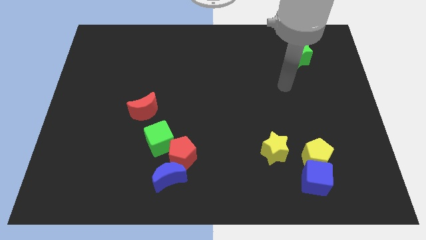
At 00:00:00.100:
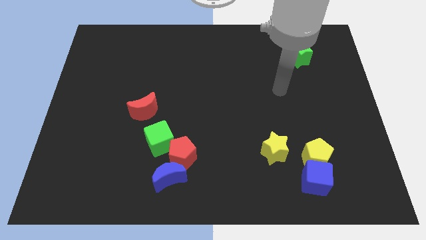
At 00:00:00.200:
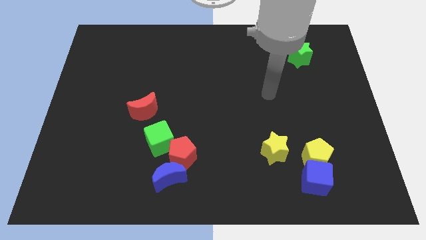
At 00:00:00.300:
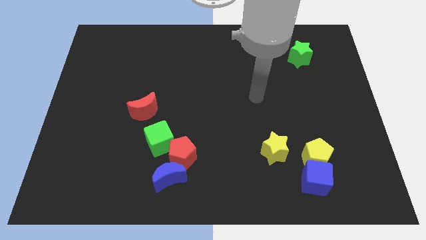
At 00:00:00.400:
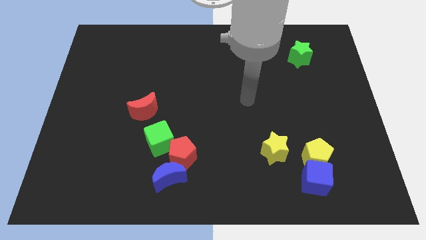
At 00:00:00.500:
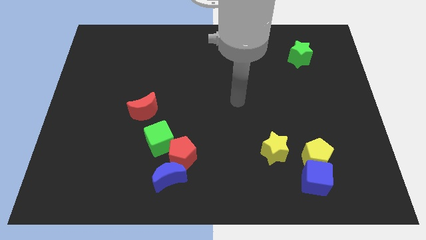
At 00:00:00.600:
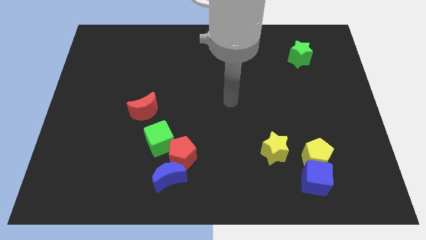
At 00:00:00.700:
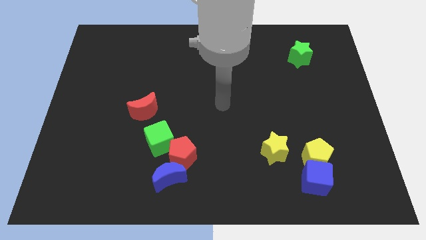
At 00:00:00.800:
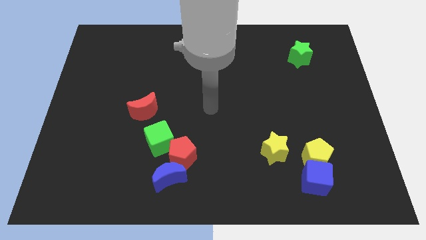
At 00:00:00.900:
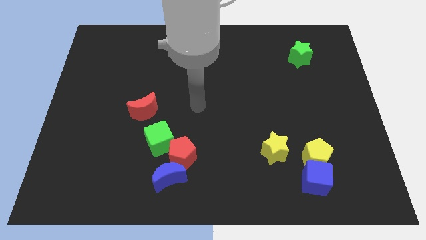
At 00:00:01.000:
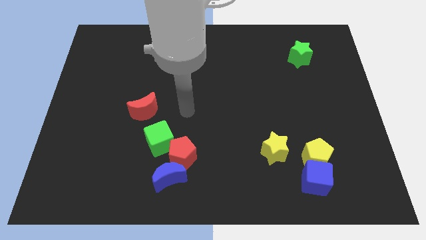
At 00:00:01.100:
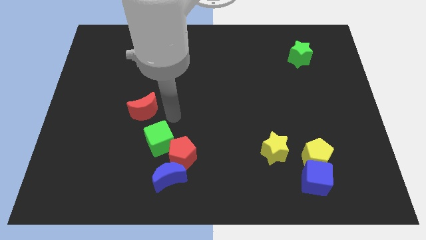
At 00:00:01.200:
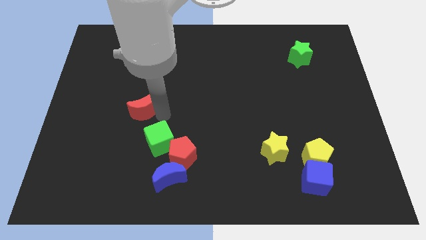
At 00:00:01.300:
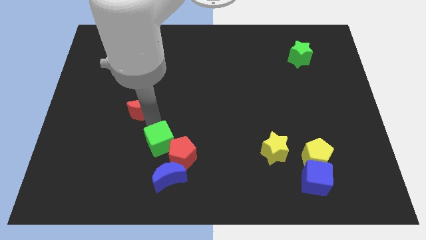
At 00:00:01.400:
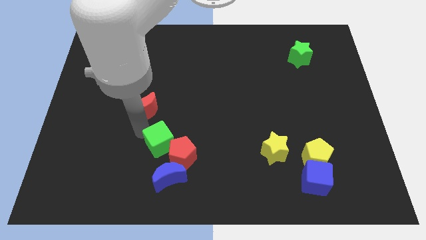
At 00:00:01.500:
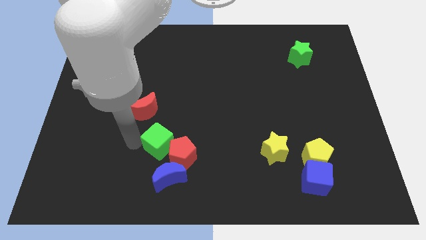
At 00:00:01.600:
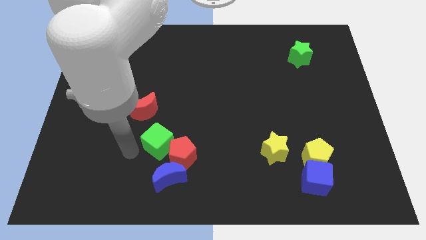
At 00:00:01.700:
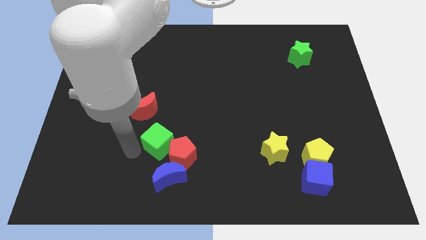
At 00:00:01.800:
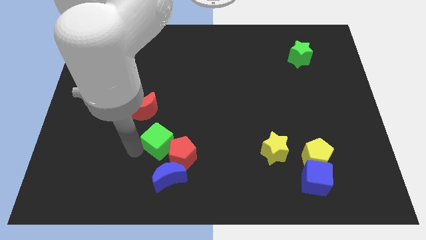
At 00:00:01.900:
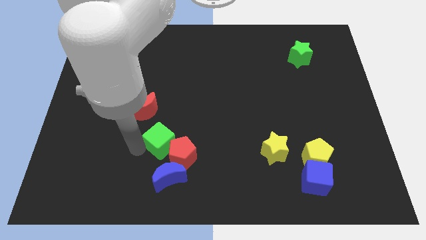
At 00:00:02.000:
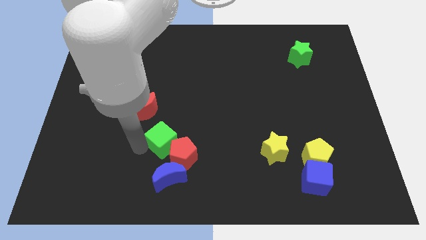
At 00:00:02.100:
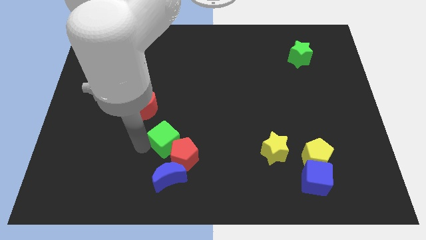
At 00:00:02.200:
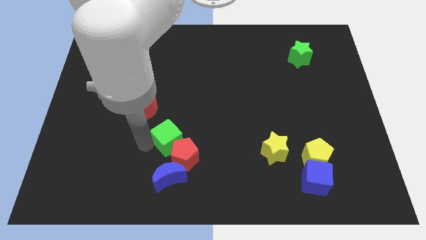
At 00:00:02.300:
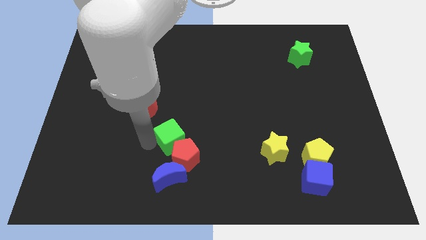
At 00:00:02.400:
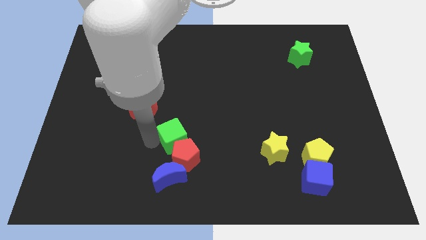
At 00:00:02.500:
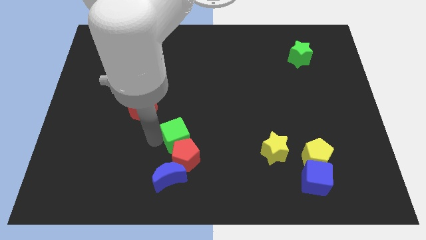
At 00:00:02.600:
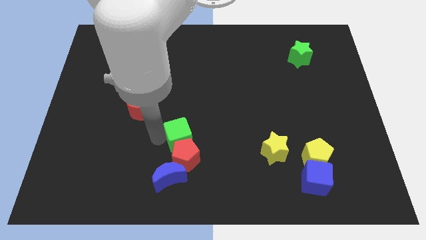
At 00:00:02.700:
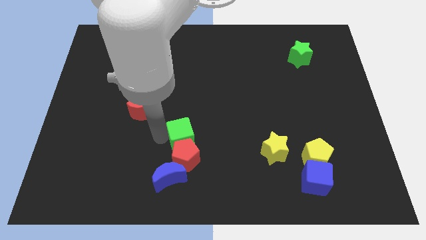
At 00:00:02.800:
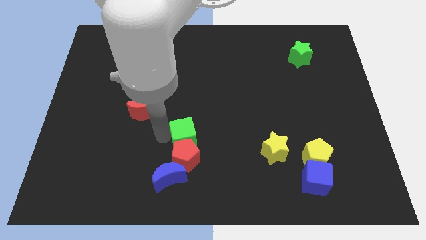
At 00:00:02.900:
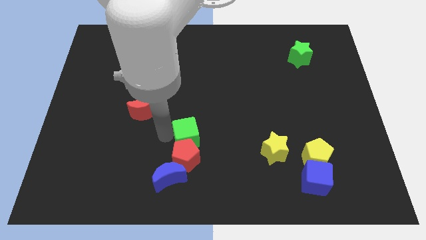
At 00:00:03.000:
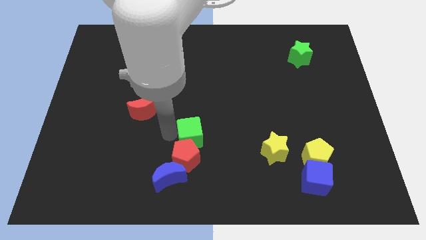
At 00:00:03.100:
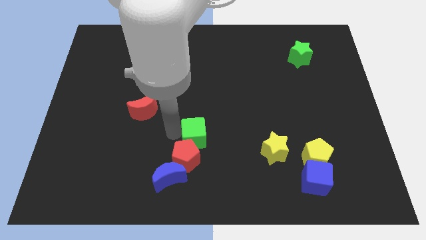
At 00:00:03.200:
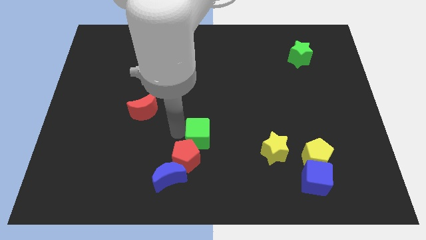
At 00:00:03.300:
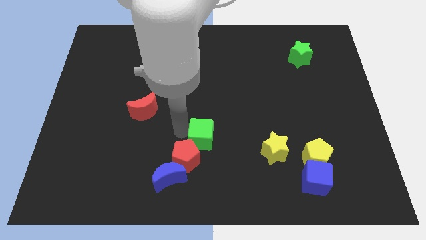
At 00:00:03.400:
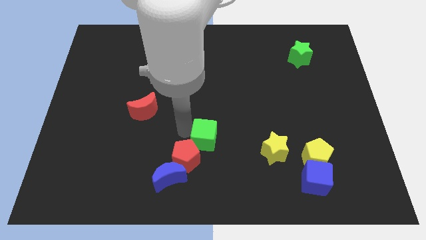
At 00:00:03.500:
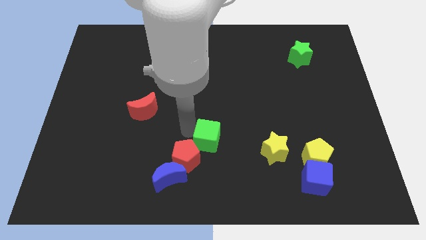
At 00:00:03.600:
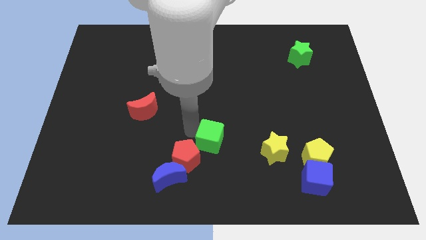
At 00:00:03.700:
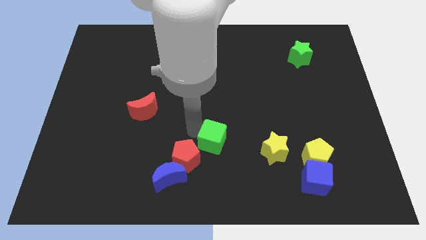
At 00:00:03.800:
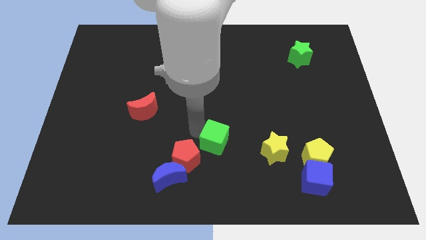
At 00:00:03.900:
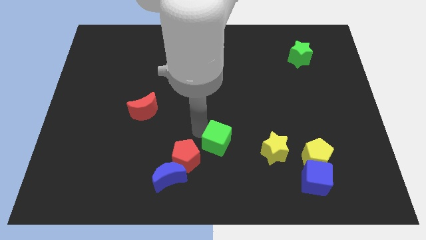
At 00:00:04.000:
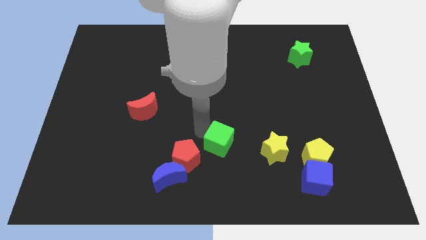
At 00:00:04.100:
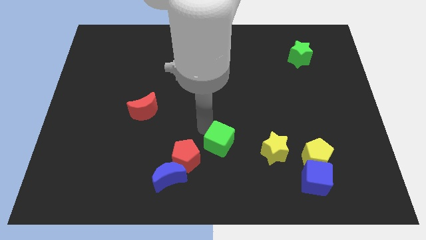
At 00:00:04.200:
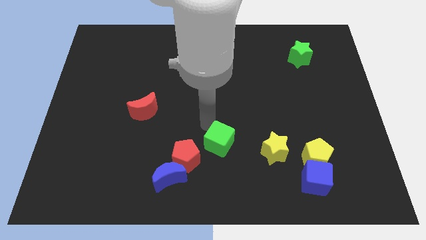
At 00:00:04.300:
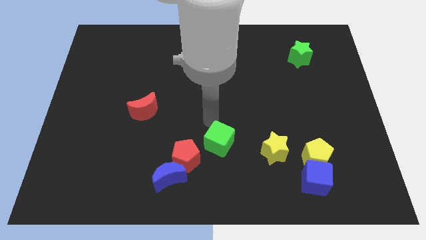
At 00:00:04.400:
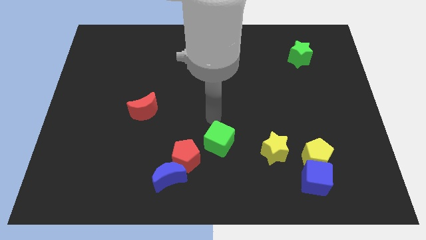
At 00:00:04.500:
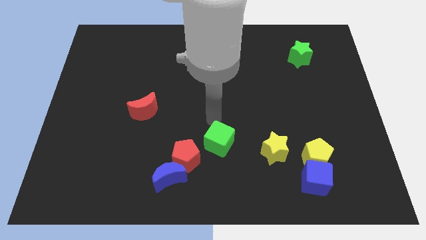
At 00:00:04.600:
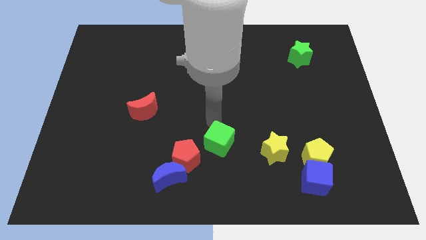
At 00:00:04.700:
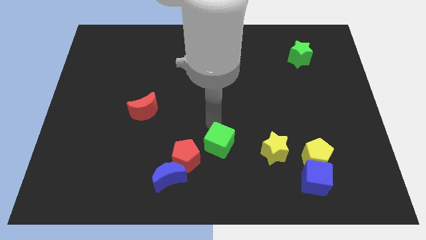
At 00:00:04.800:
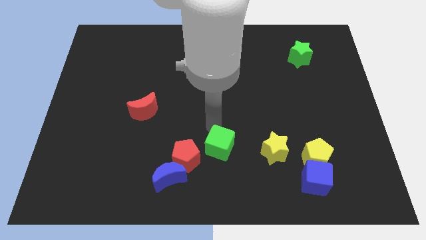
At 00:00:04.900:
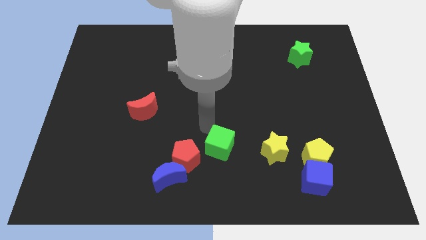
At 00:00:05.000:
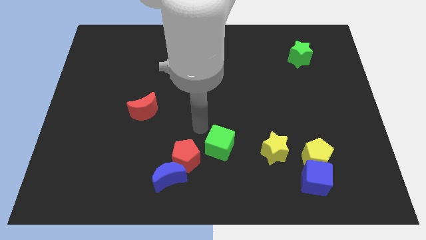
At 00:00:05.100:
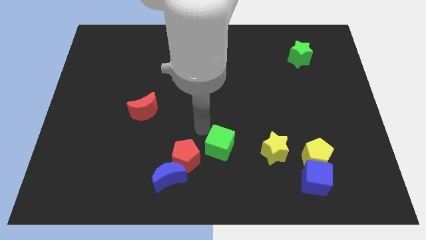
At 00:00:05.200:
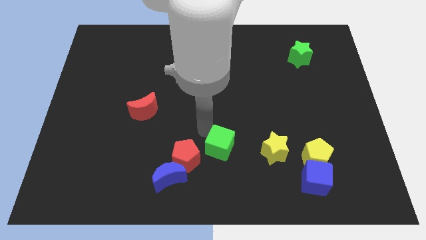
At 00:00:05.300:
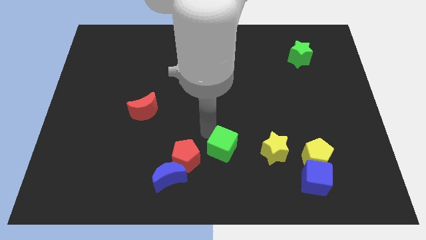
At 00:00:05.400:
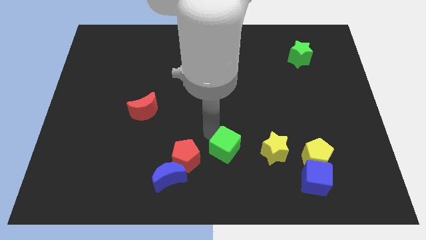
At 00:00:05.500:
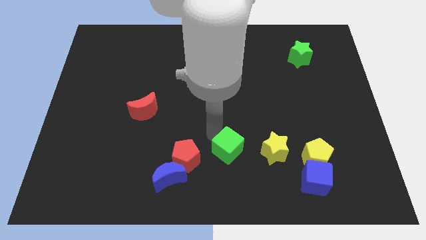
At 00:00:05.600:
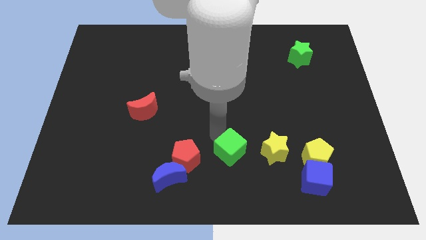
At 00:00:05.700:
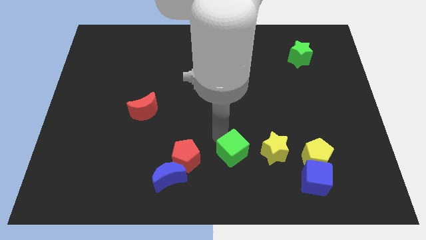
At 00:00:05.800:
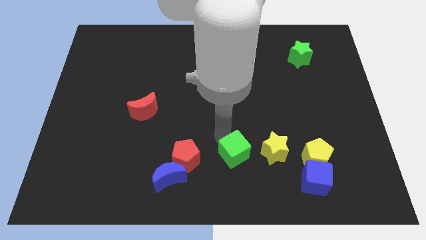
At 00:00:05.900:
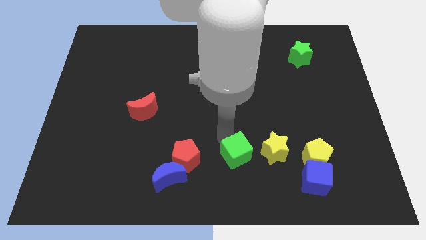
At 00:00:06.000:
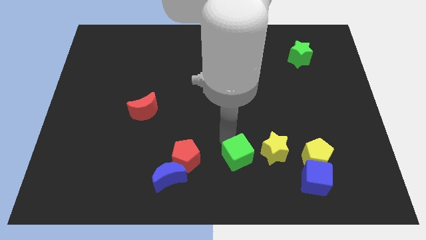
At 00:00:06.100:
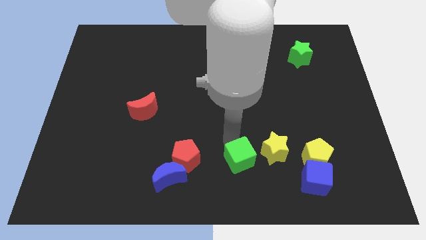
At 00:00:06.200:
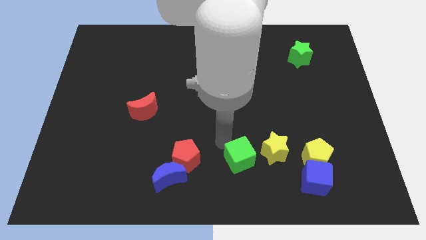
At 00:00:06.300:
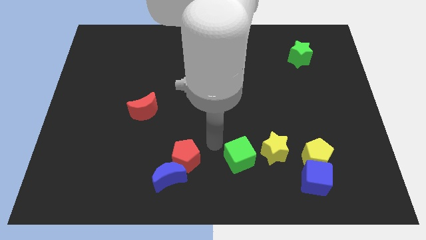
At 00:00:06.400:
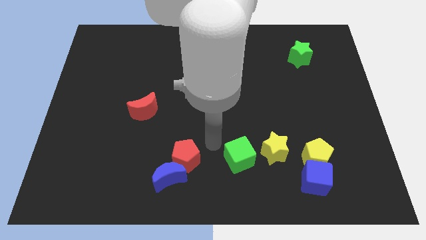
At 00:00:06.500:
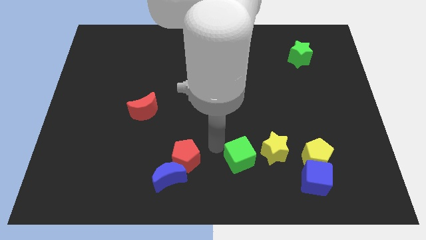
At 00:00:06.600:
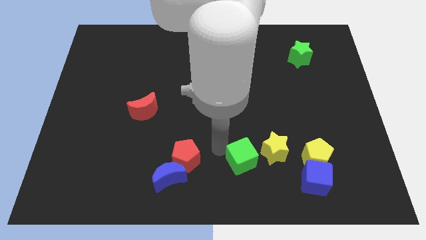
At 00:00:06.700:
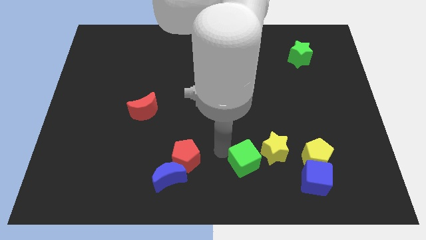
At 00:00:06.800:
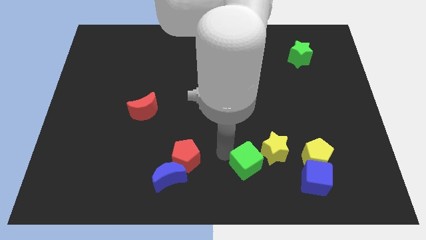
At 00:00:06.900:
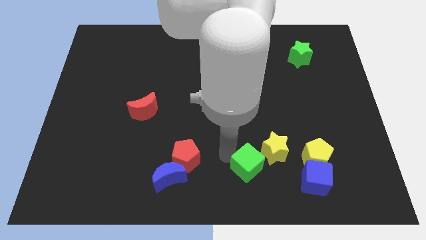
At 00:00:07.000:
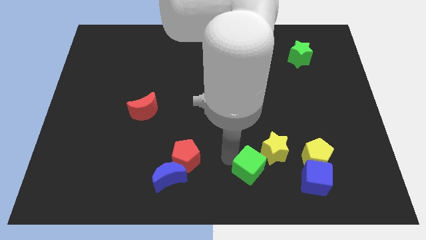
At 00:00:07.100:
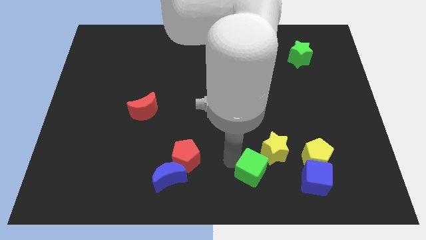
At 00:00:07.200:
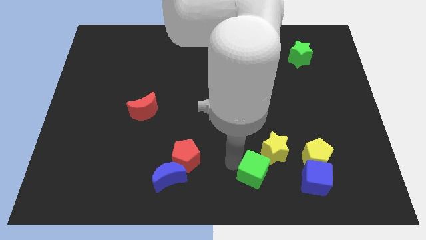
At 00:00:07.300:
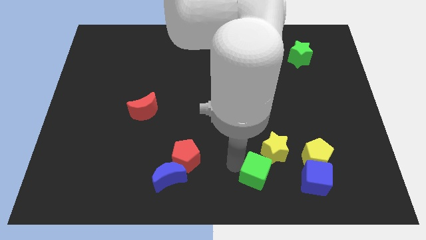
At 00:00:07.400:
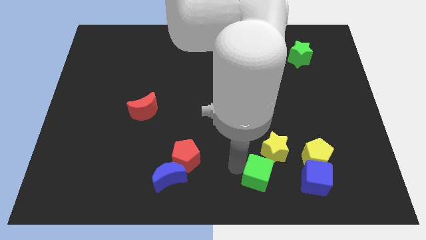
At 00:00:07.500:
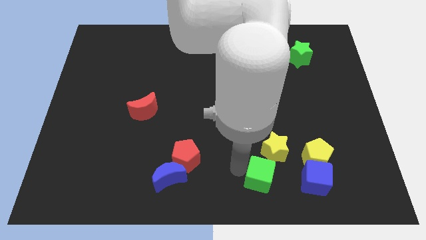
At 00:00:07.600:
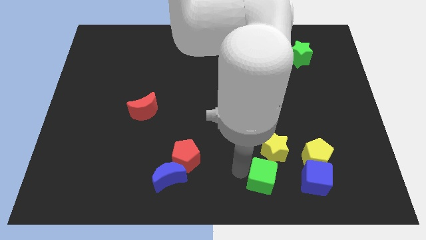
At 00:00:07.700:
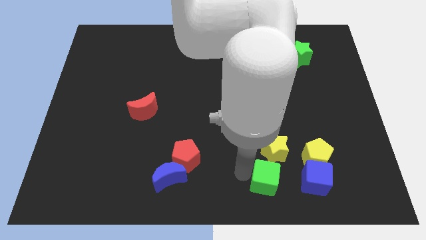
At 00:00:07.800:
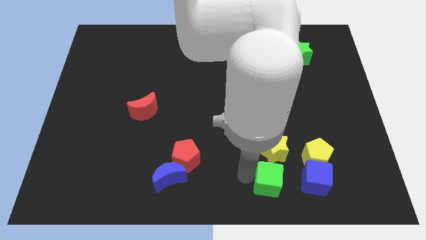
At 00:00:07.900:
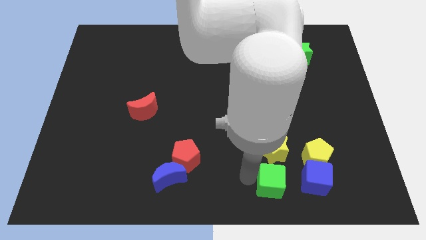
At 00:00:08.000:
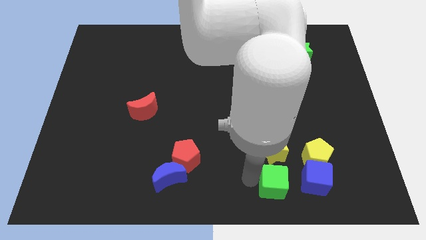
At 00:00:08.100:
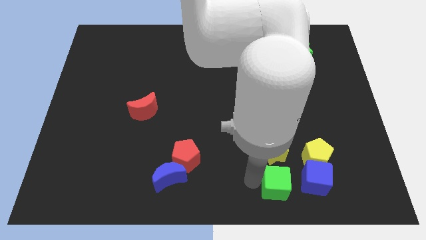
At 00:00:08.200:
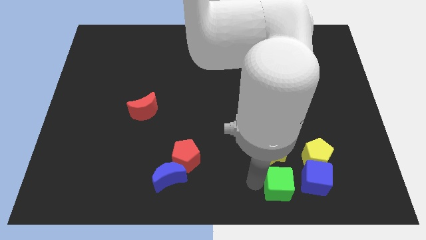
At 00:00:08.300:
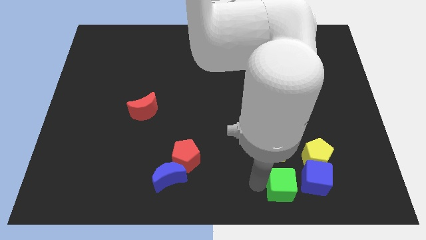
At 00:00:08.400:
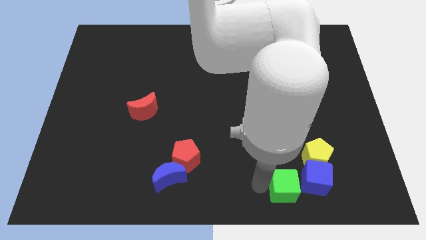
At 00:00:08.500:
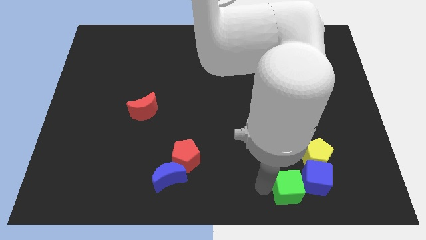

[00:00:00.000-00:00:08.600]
slide the green cube close to the blue cube
